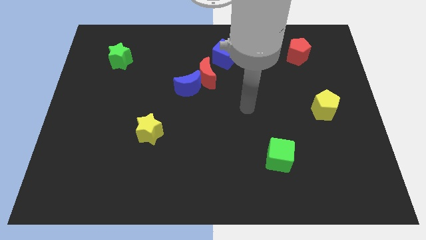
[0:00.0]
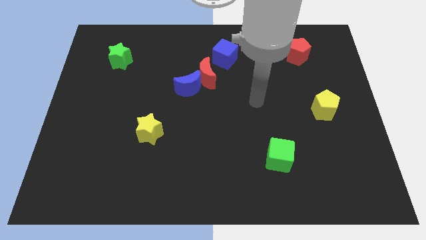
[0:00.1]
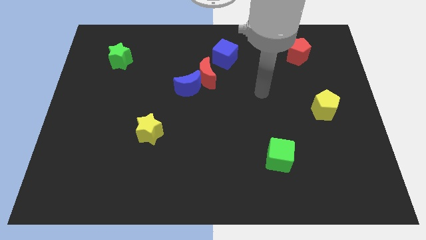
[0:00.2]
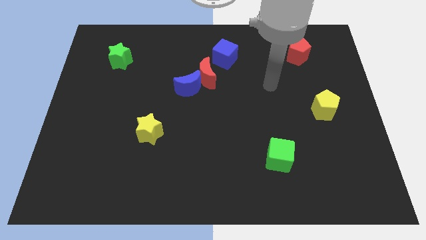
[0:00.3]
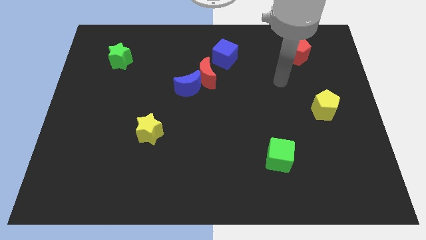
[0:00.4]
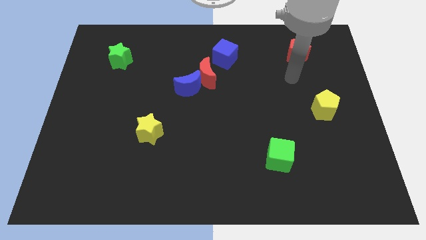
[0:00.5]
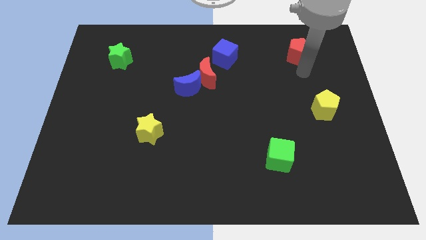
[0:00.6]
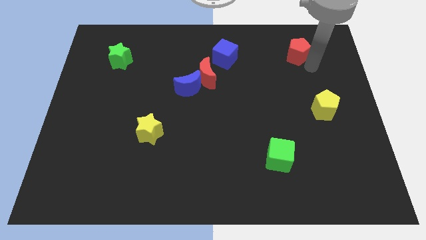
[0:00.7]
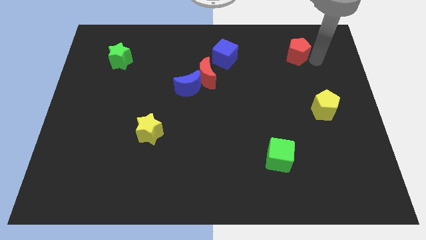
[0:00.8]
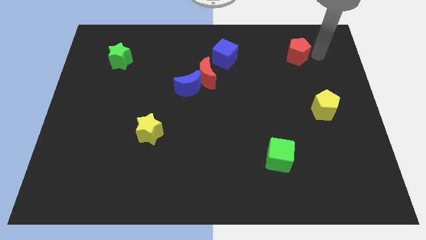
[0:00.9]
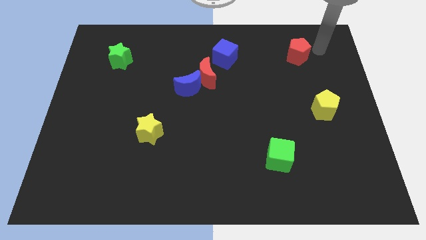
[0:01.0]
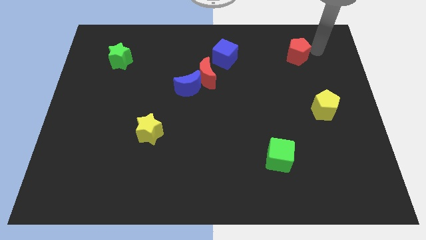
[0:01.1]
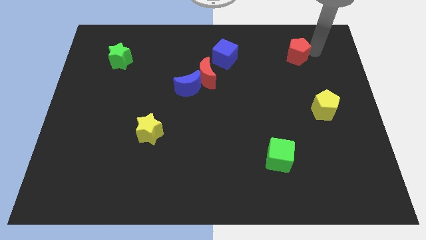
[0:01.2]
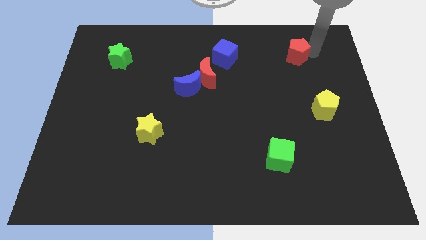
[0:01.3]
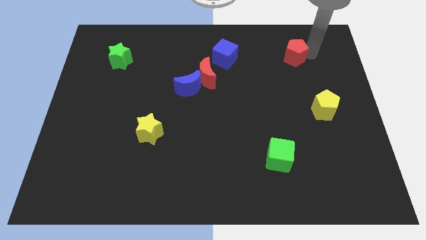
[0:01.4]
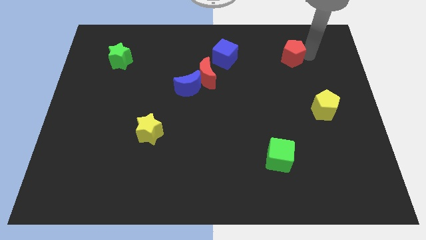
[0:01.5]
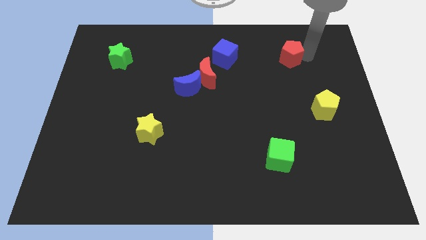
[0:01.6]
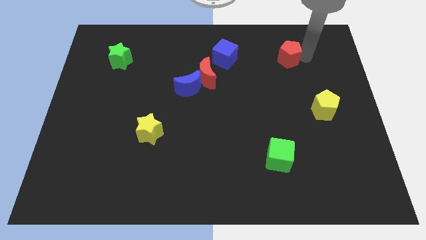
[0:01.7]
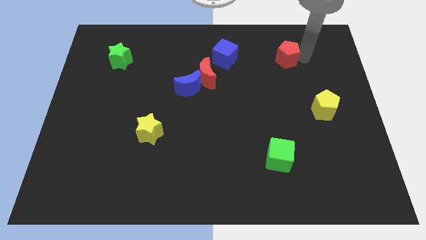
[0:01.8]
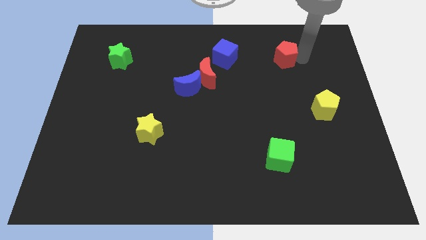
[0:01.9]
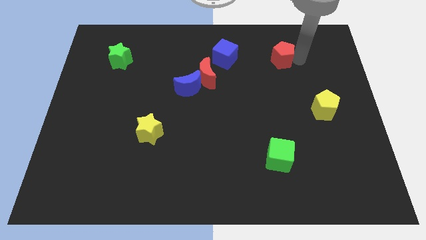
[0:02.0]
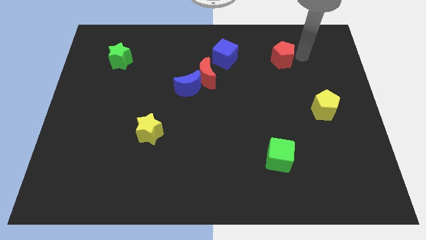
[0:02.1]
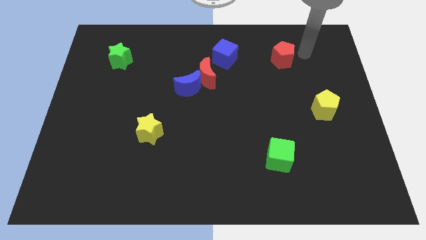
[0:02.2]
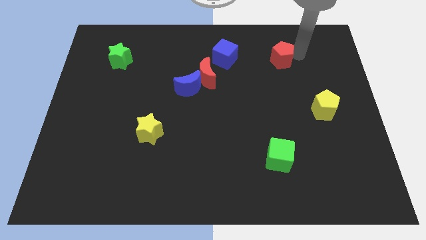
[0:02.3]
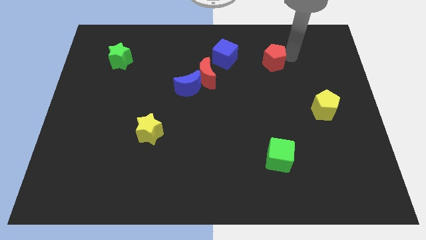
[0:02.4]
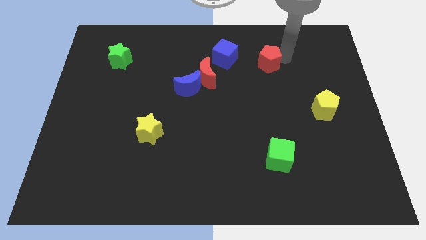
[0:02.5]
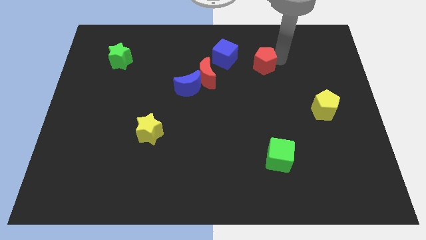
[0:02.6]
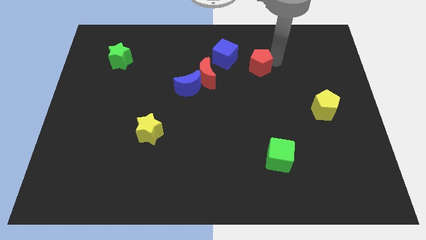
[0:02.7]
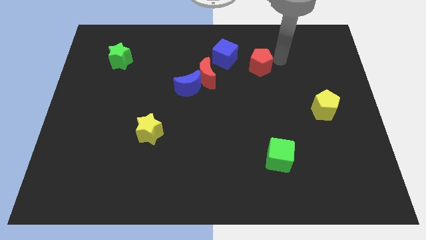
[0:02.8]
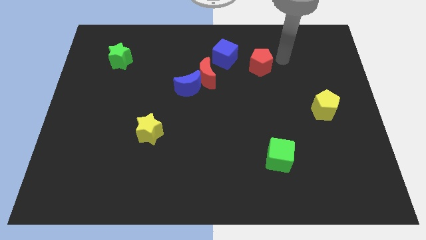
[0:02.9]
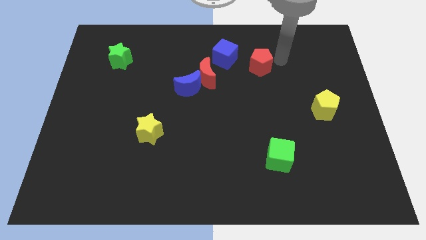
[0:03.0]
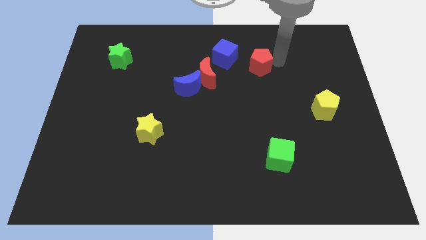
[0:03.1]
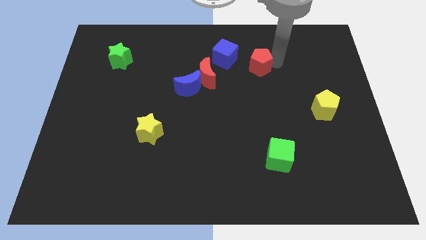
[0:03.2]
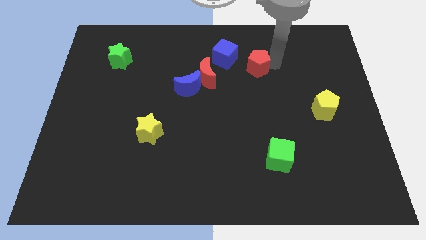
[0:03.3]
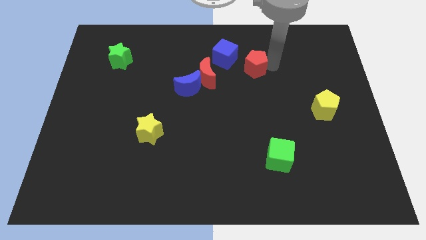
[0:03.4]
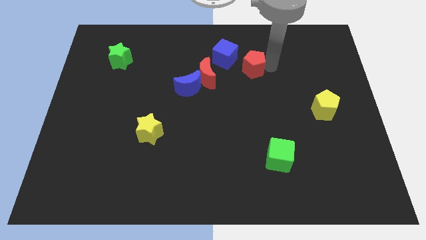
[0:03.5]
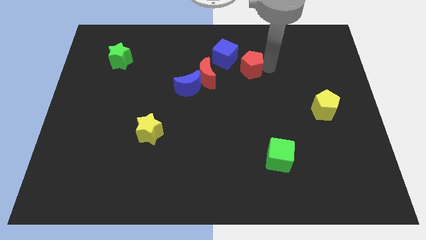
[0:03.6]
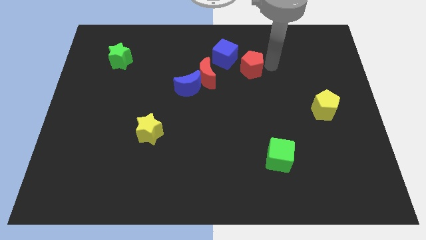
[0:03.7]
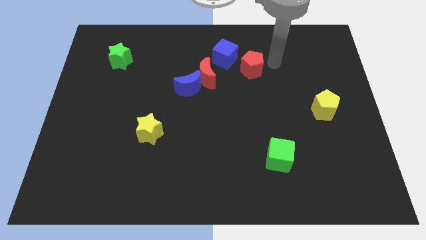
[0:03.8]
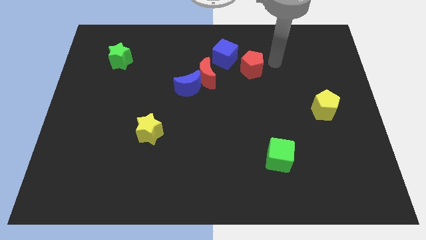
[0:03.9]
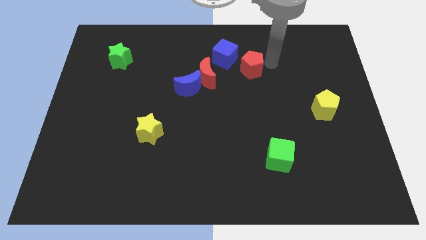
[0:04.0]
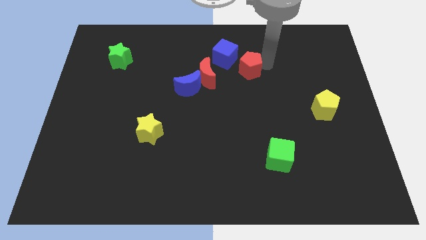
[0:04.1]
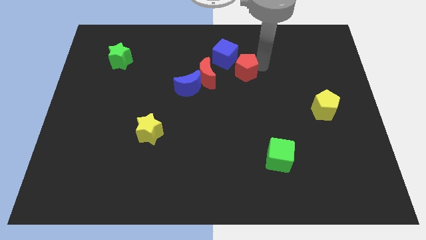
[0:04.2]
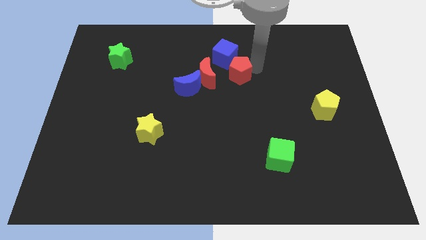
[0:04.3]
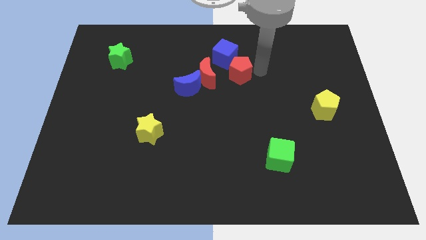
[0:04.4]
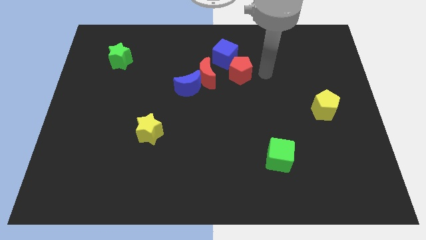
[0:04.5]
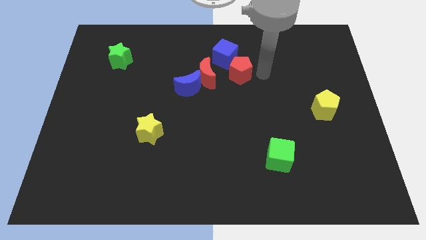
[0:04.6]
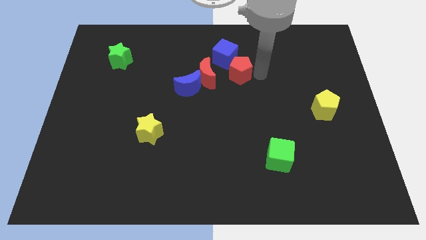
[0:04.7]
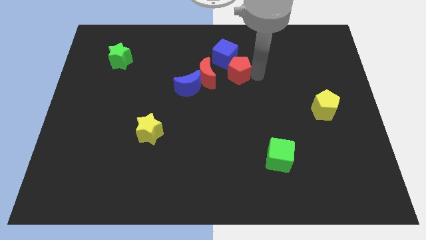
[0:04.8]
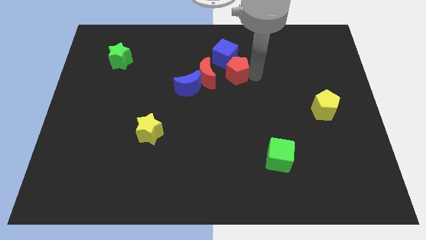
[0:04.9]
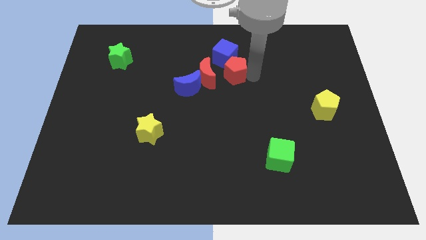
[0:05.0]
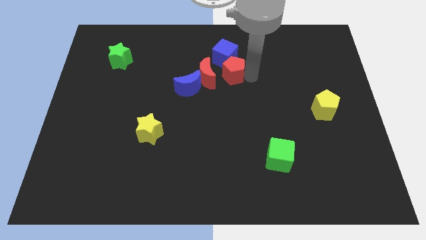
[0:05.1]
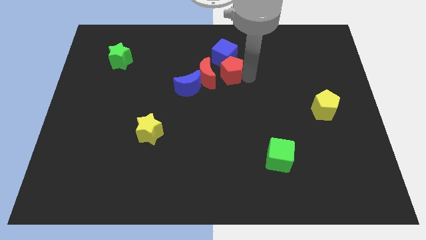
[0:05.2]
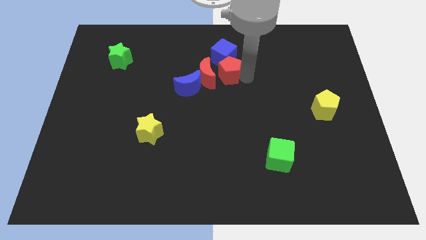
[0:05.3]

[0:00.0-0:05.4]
slide the red pentagon to the red moon

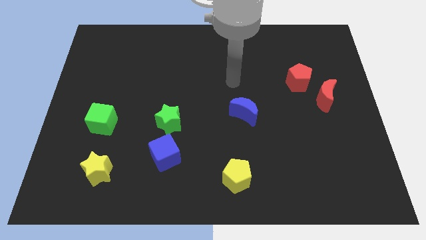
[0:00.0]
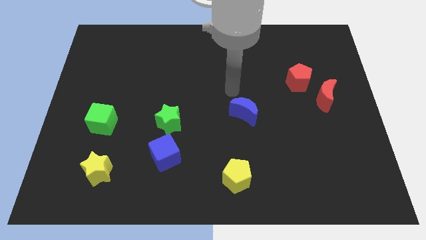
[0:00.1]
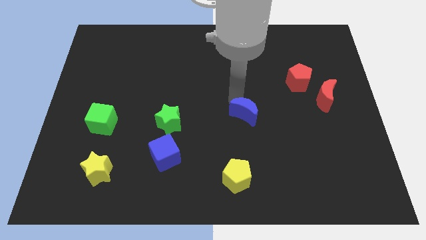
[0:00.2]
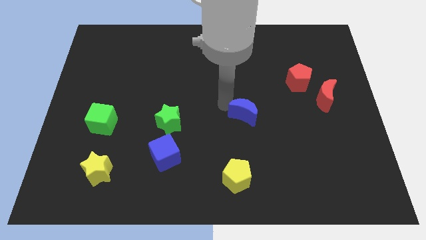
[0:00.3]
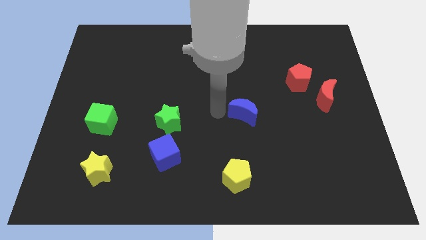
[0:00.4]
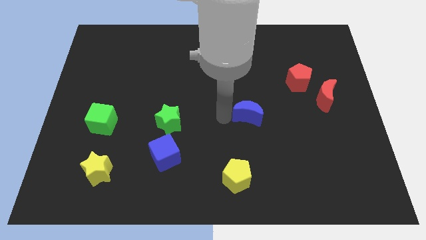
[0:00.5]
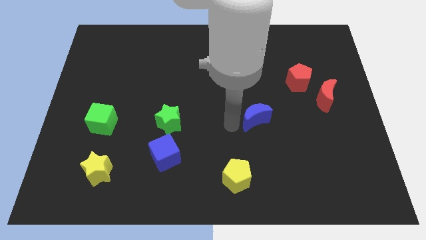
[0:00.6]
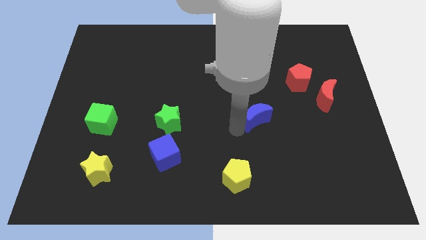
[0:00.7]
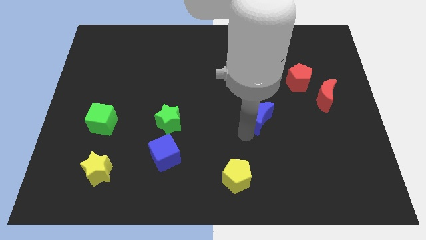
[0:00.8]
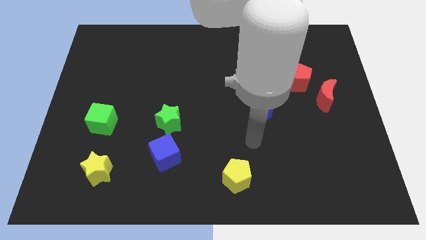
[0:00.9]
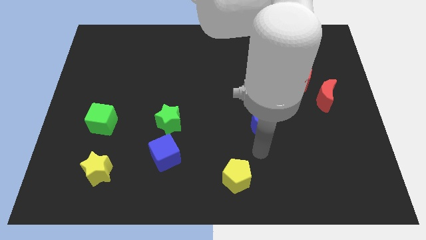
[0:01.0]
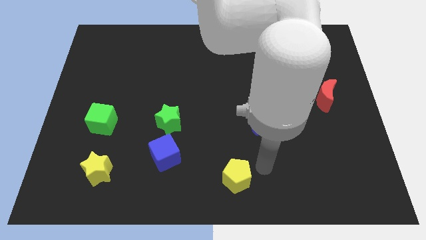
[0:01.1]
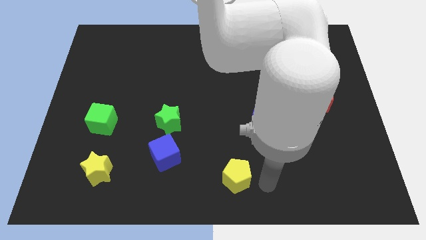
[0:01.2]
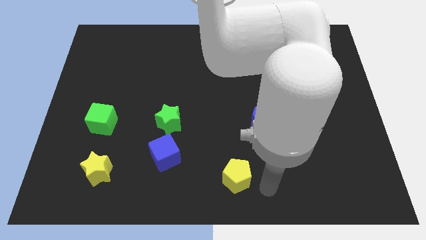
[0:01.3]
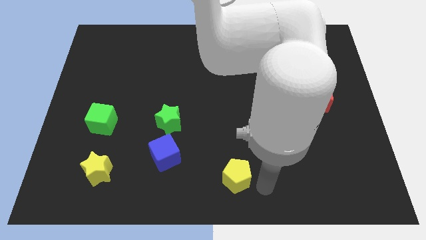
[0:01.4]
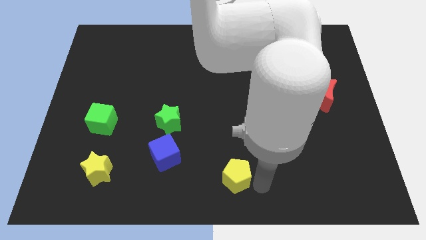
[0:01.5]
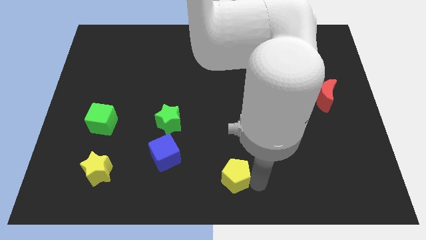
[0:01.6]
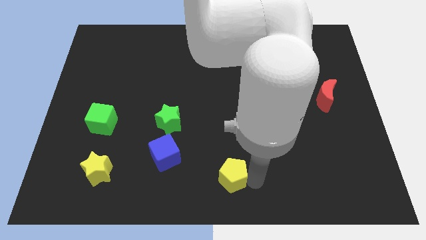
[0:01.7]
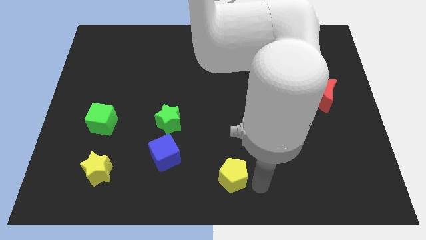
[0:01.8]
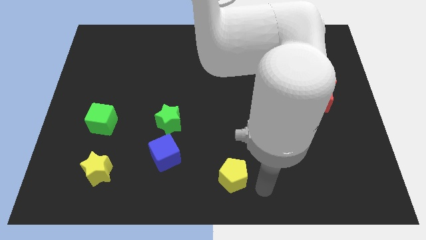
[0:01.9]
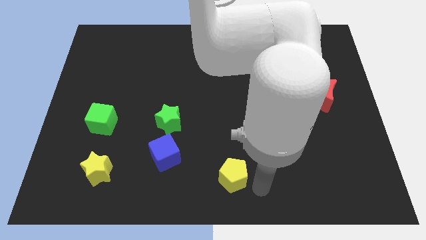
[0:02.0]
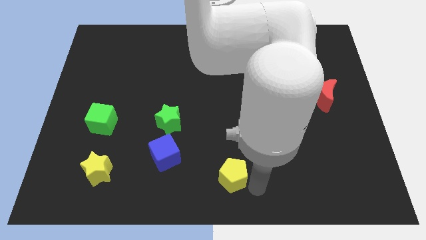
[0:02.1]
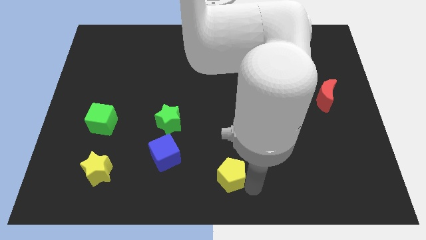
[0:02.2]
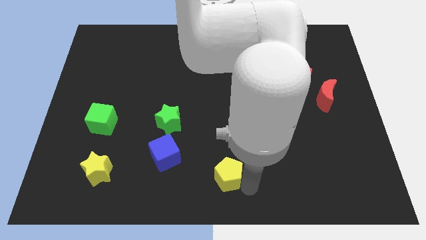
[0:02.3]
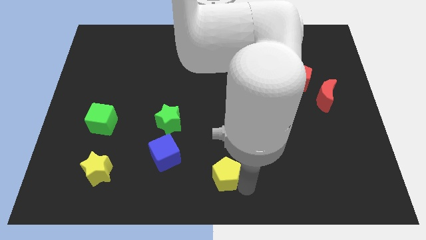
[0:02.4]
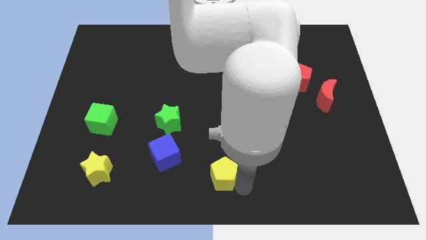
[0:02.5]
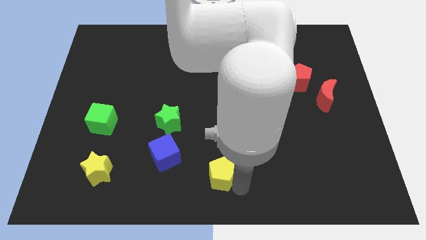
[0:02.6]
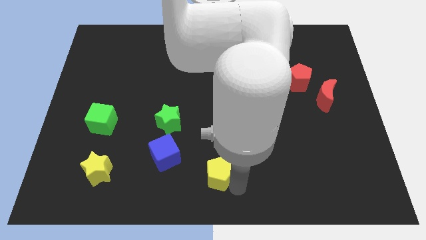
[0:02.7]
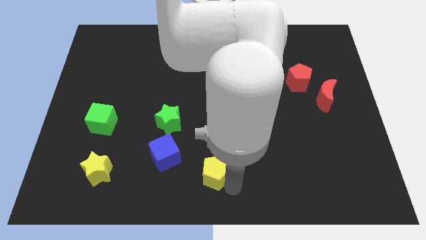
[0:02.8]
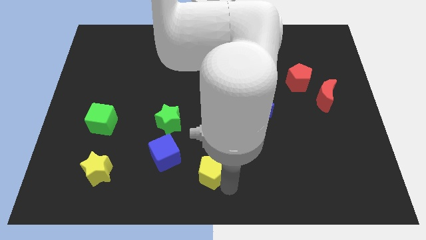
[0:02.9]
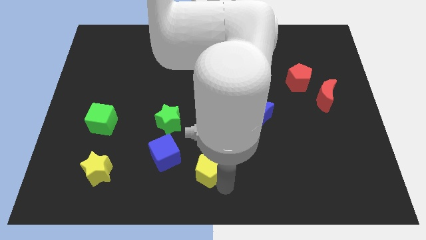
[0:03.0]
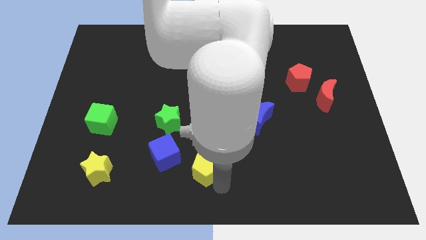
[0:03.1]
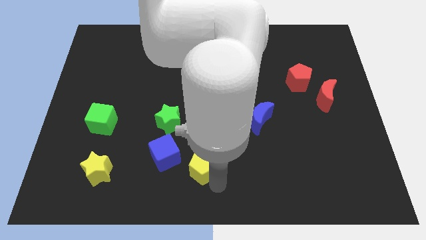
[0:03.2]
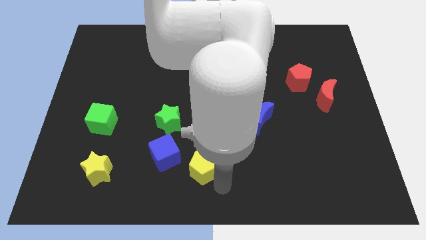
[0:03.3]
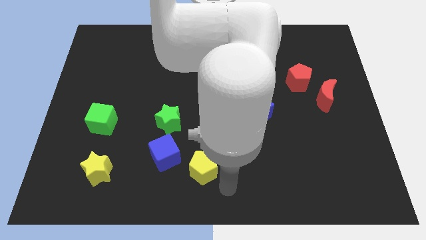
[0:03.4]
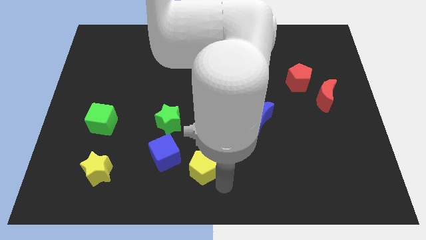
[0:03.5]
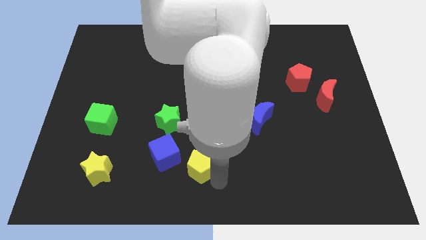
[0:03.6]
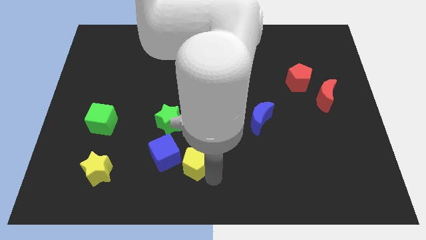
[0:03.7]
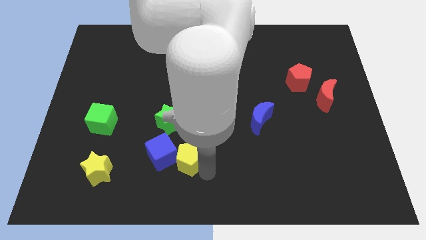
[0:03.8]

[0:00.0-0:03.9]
put the yellow pentagon close to the blue cube
